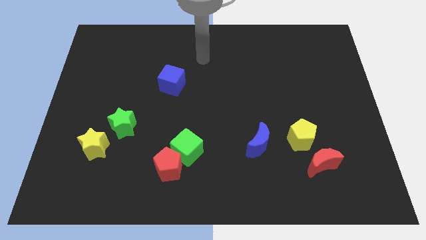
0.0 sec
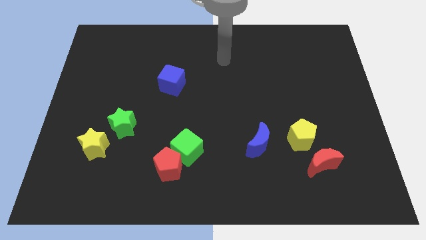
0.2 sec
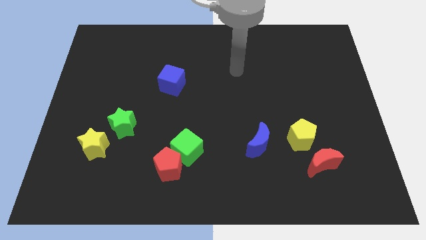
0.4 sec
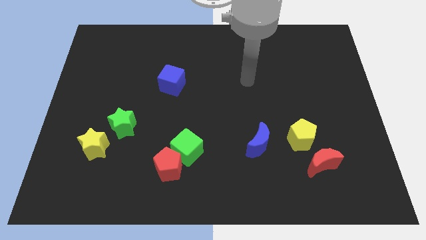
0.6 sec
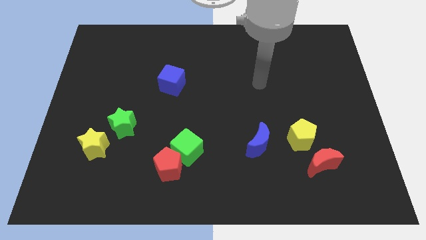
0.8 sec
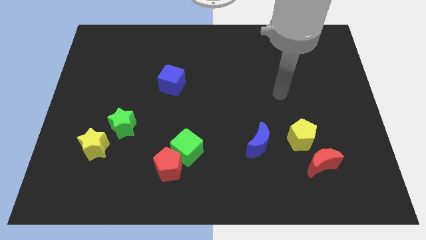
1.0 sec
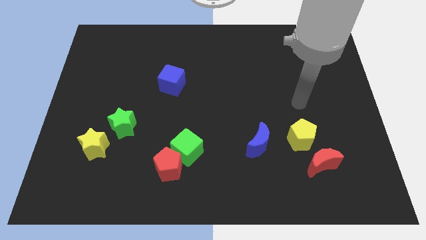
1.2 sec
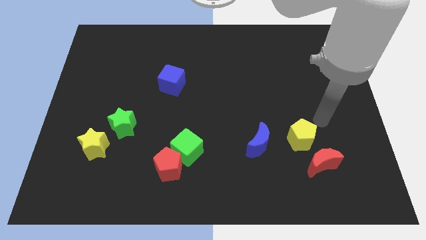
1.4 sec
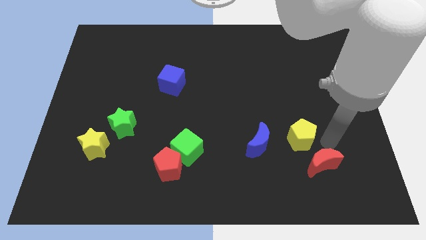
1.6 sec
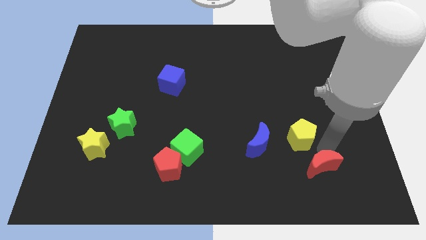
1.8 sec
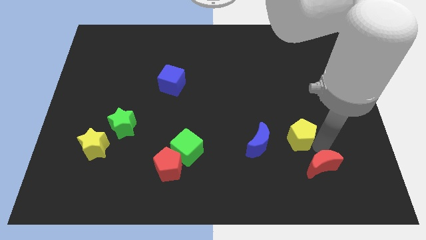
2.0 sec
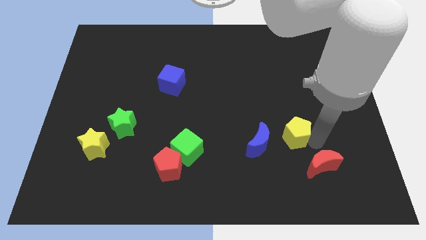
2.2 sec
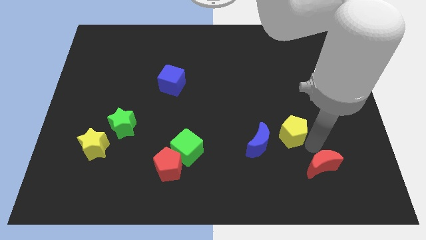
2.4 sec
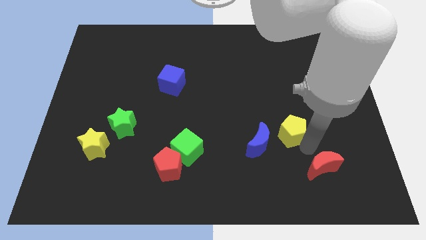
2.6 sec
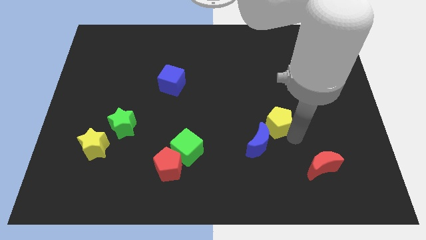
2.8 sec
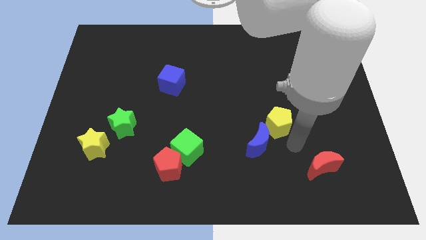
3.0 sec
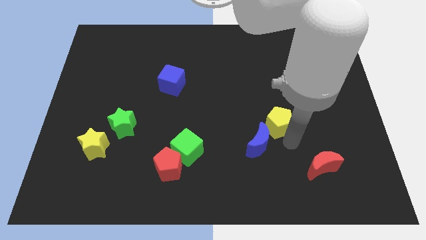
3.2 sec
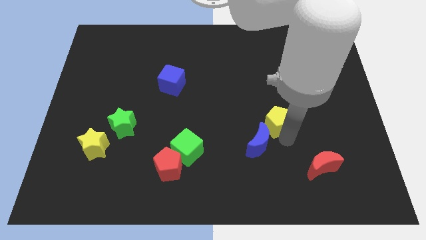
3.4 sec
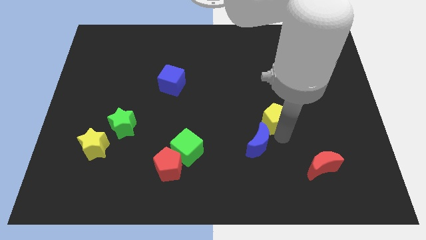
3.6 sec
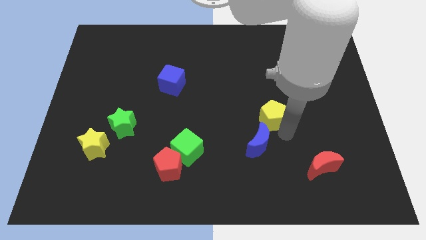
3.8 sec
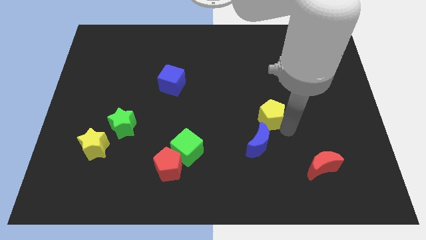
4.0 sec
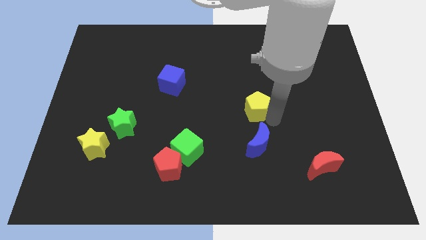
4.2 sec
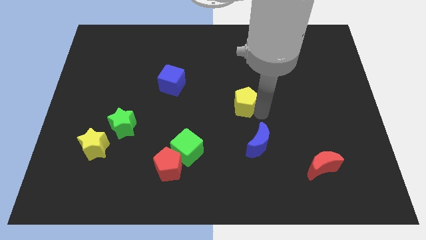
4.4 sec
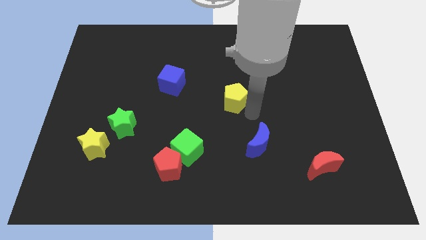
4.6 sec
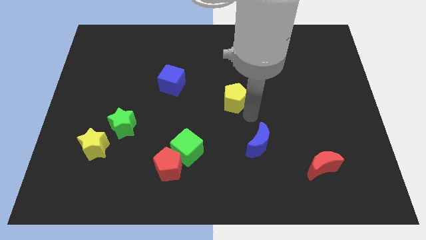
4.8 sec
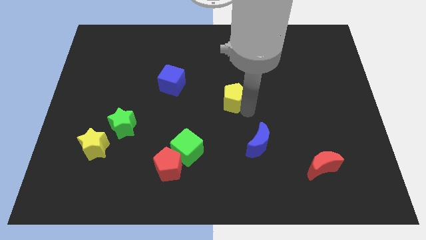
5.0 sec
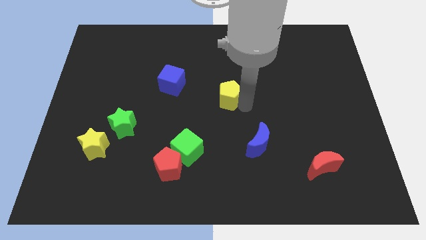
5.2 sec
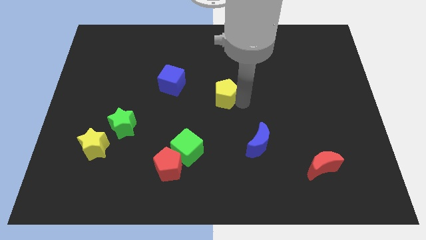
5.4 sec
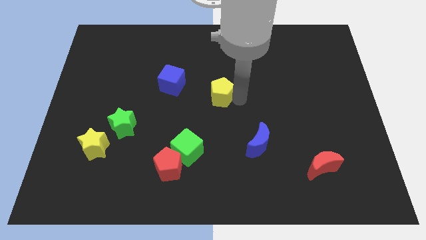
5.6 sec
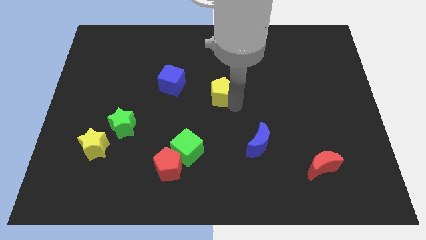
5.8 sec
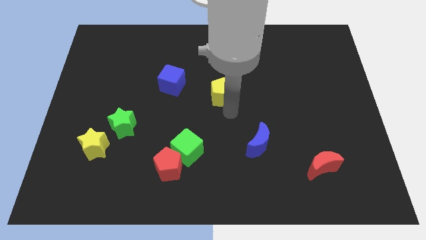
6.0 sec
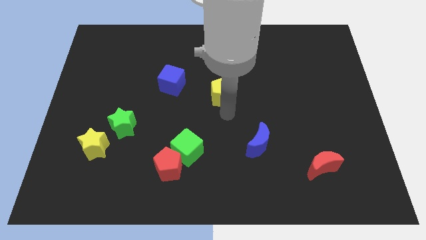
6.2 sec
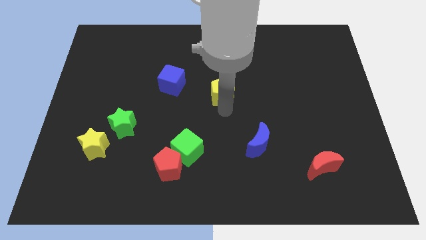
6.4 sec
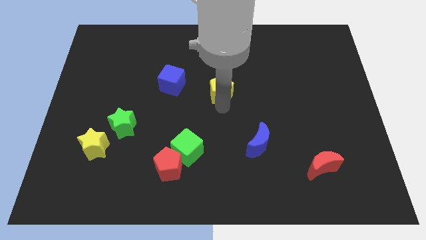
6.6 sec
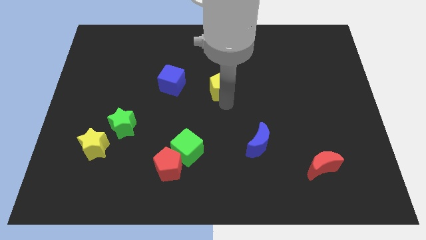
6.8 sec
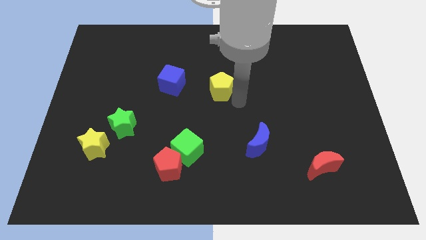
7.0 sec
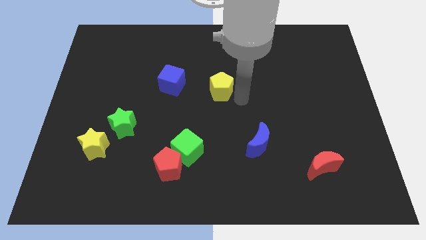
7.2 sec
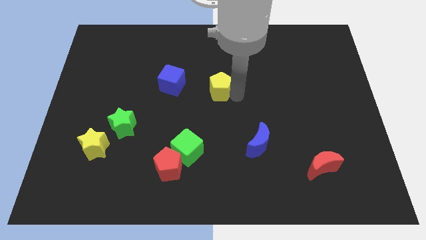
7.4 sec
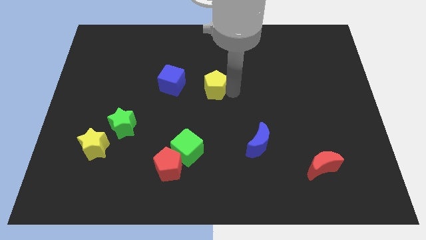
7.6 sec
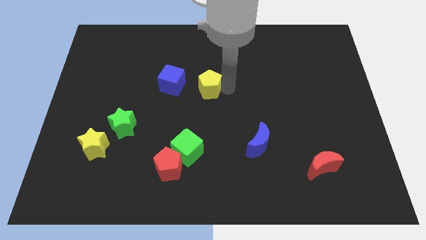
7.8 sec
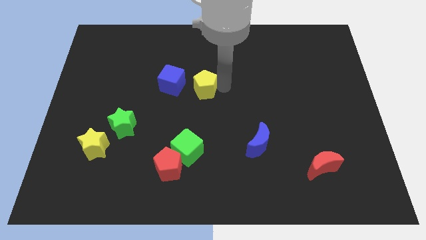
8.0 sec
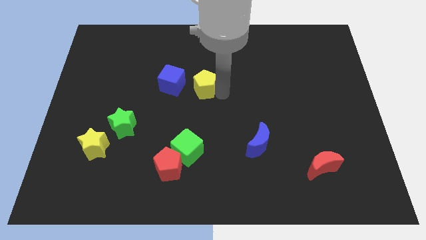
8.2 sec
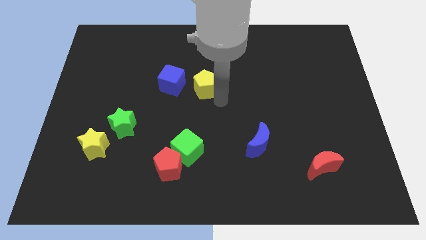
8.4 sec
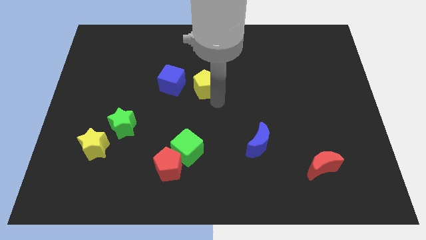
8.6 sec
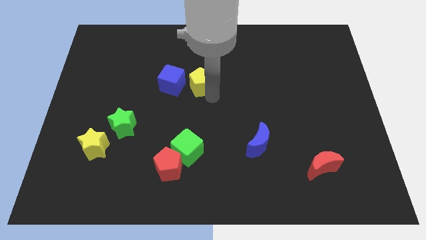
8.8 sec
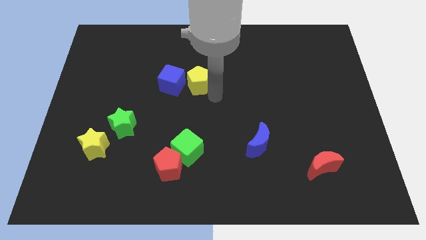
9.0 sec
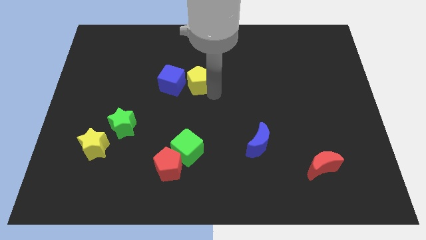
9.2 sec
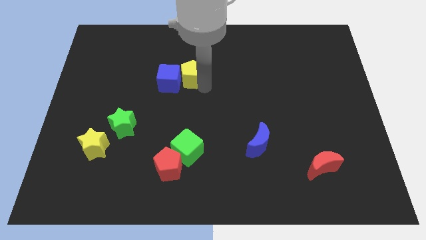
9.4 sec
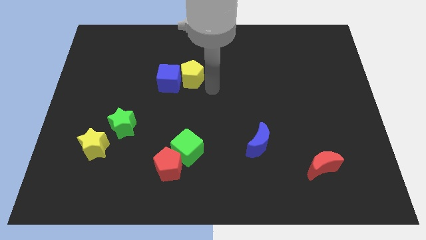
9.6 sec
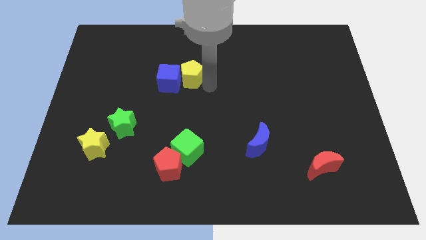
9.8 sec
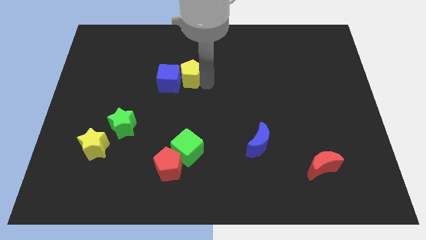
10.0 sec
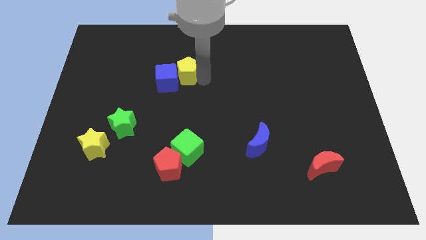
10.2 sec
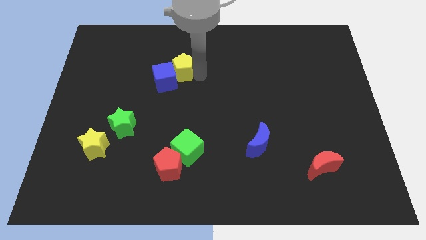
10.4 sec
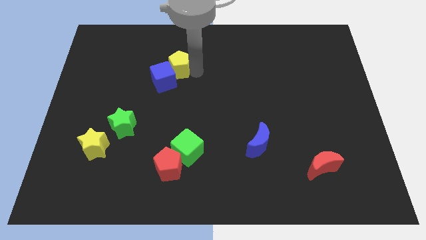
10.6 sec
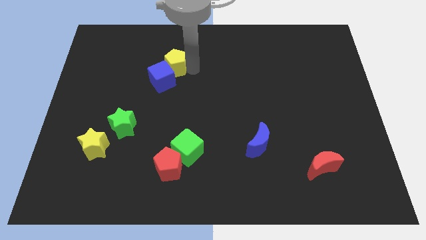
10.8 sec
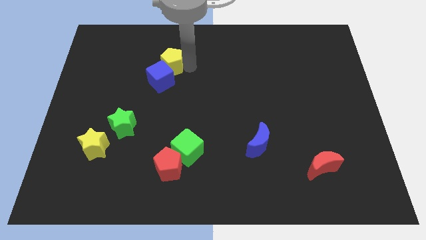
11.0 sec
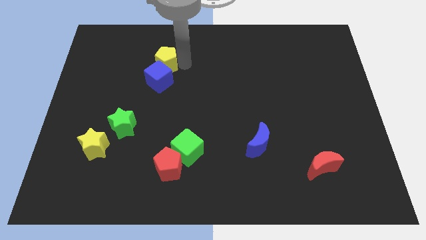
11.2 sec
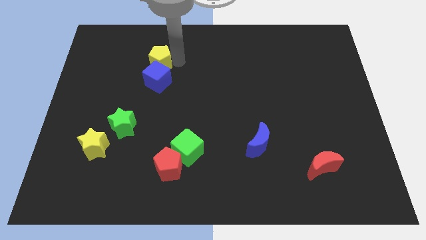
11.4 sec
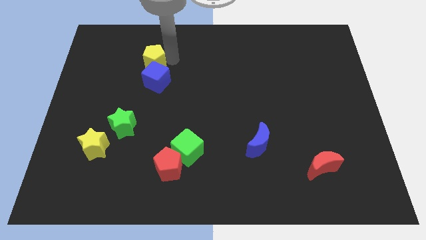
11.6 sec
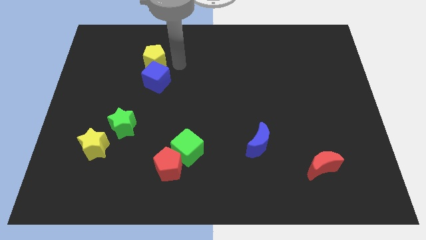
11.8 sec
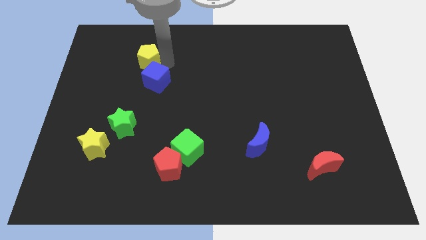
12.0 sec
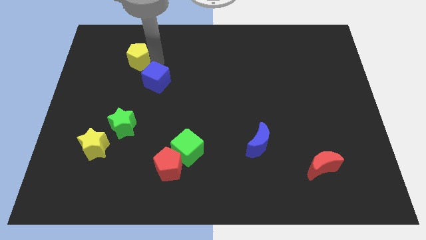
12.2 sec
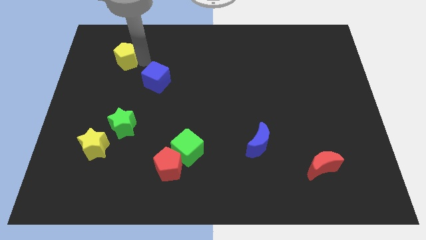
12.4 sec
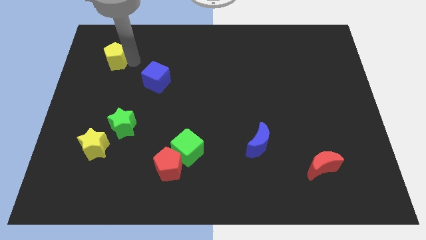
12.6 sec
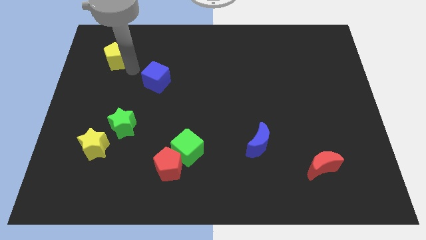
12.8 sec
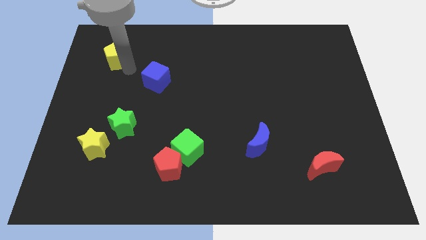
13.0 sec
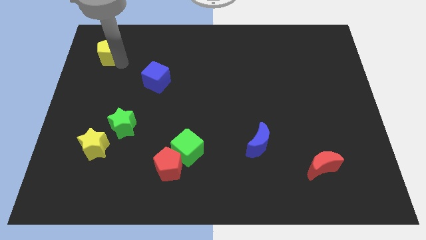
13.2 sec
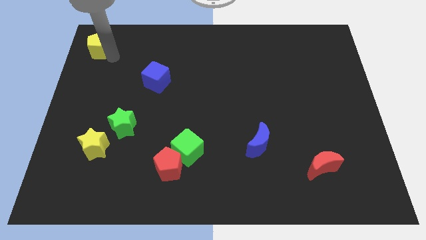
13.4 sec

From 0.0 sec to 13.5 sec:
put the yellow pentagon to the top left of the board

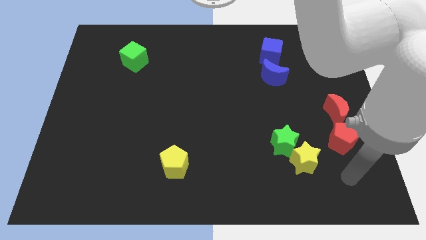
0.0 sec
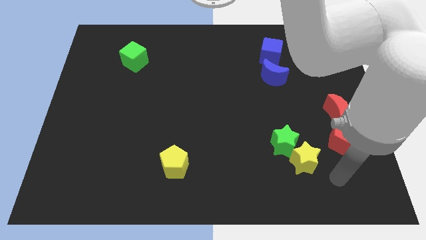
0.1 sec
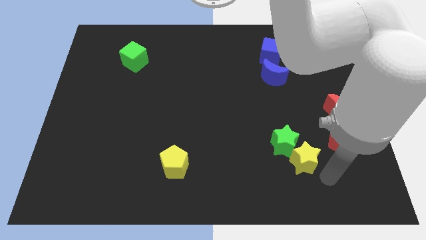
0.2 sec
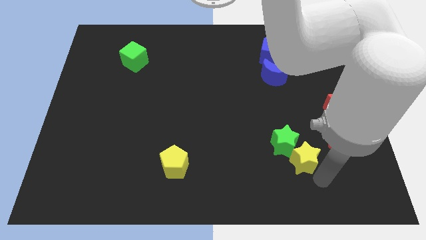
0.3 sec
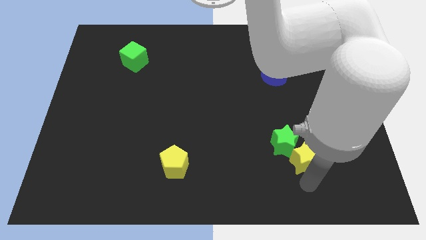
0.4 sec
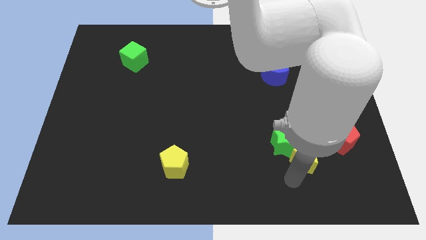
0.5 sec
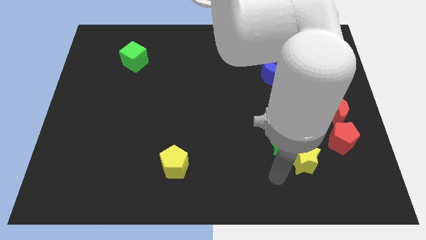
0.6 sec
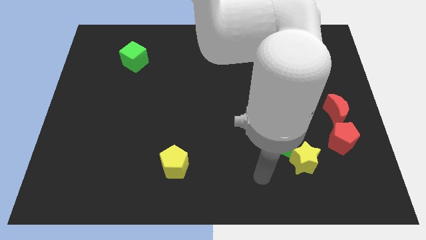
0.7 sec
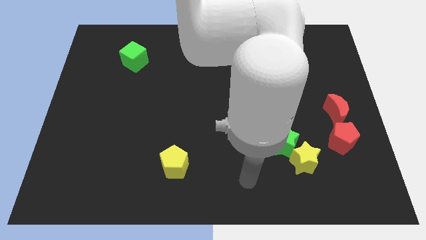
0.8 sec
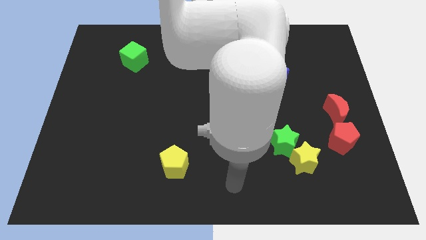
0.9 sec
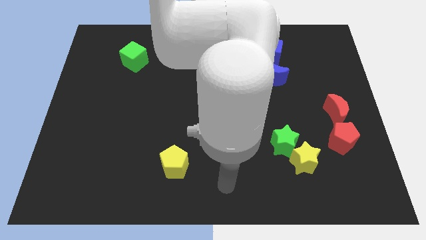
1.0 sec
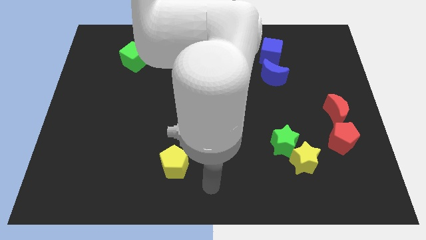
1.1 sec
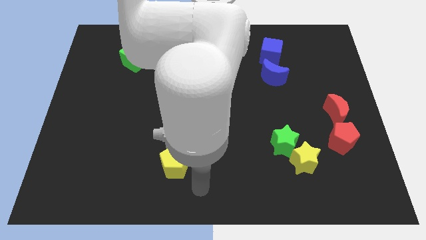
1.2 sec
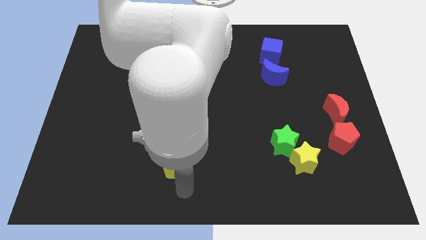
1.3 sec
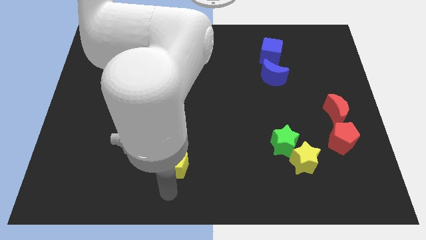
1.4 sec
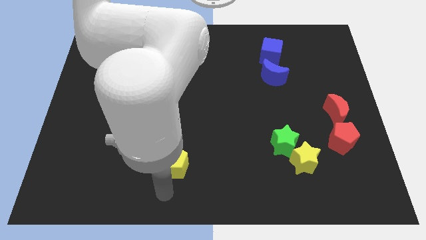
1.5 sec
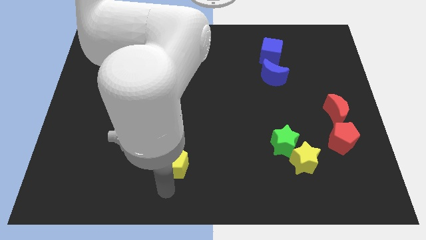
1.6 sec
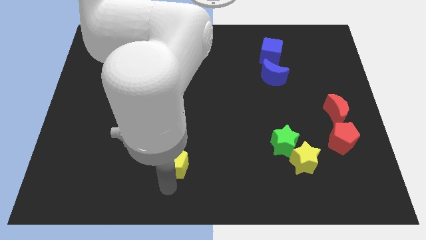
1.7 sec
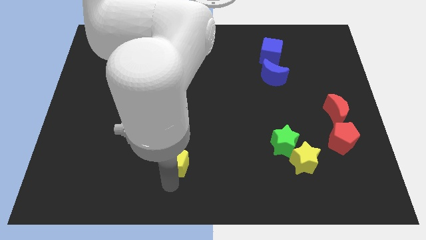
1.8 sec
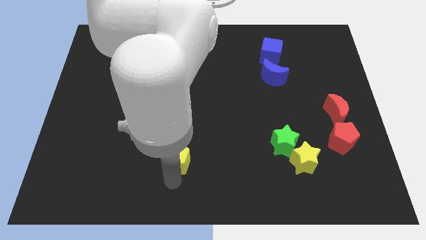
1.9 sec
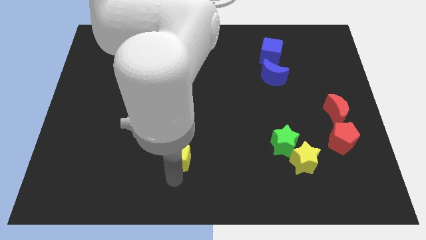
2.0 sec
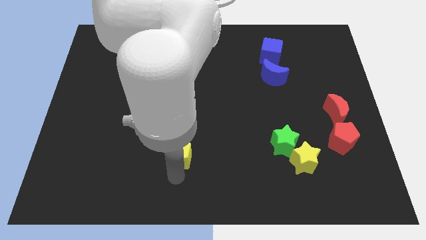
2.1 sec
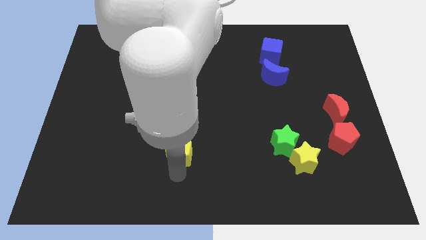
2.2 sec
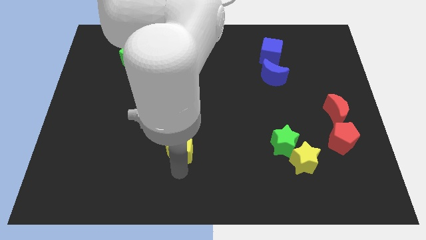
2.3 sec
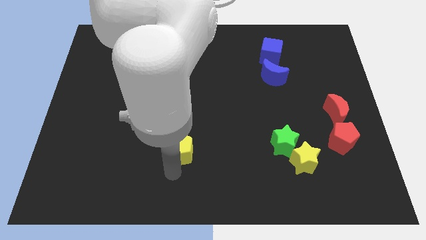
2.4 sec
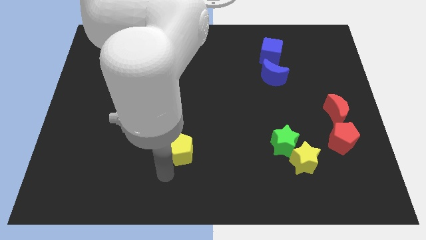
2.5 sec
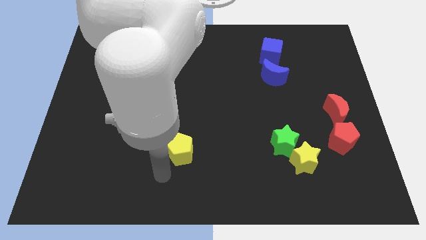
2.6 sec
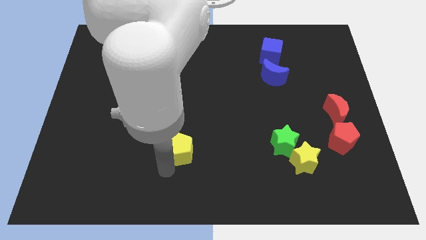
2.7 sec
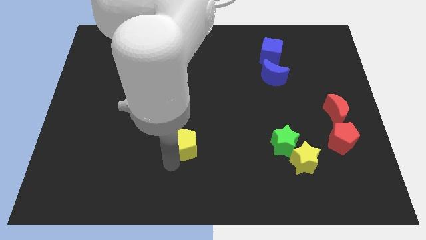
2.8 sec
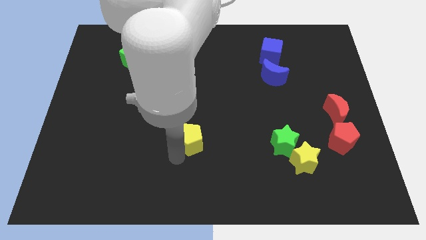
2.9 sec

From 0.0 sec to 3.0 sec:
move the yellow pentagon to the center
